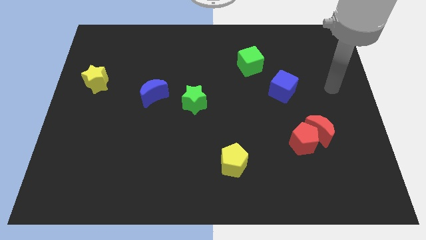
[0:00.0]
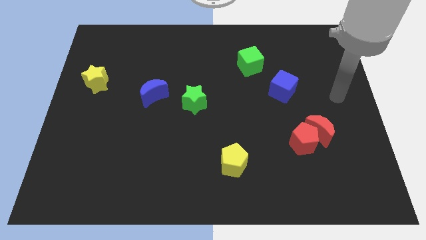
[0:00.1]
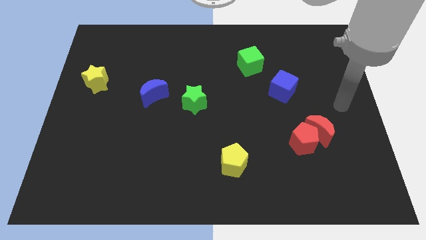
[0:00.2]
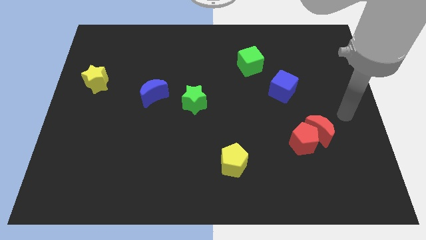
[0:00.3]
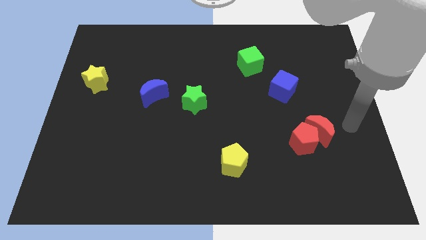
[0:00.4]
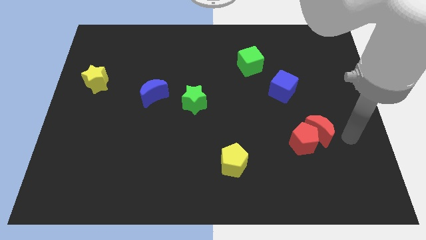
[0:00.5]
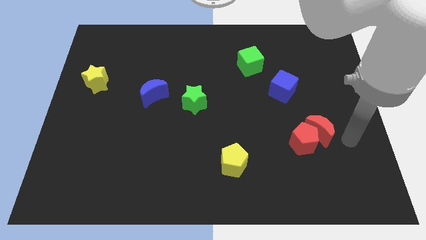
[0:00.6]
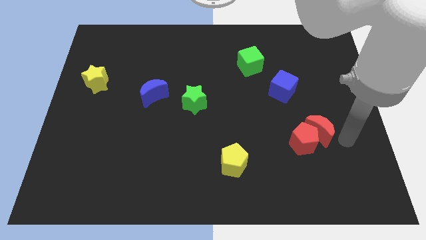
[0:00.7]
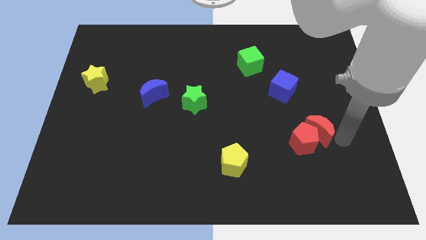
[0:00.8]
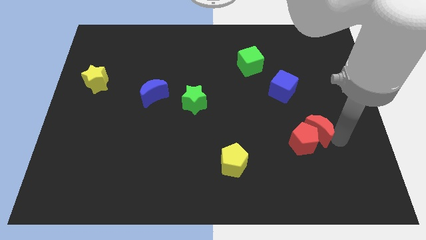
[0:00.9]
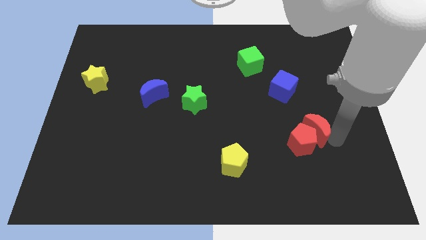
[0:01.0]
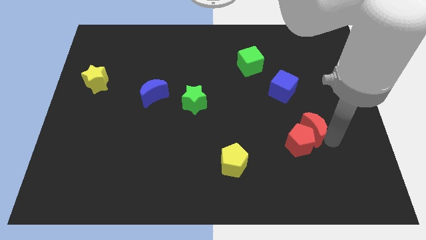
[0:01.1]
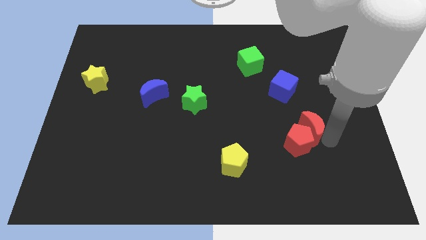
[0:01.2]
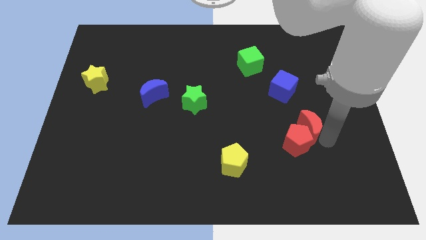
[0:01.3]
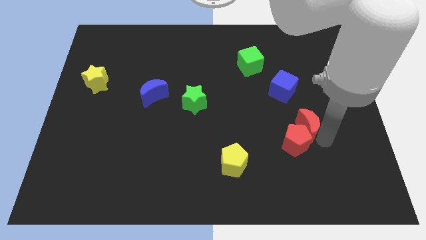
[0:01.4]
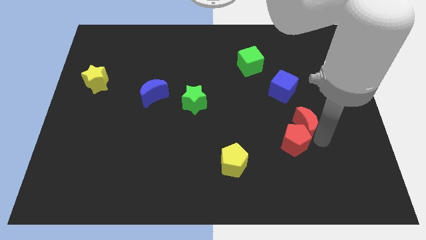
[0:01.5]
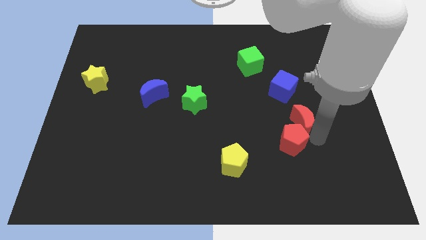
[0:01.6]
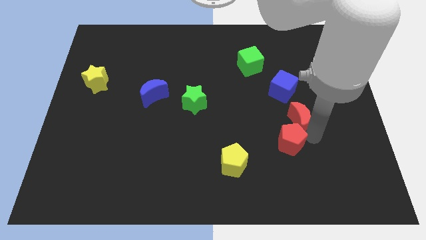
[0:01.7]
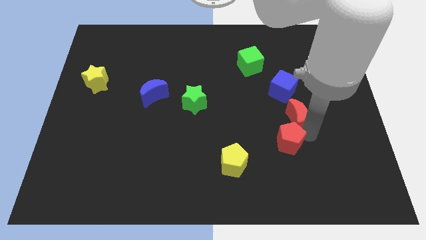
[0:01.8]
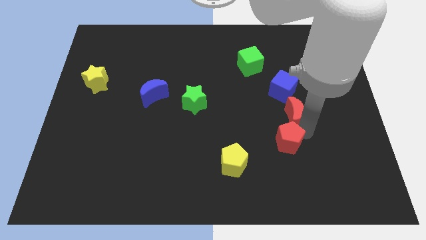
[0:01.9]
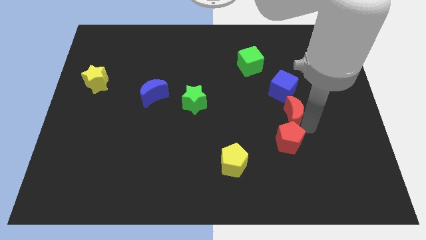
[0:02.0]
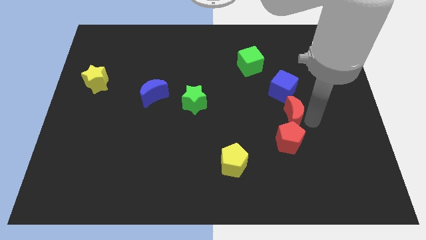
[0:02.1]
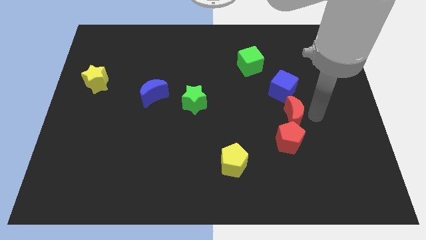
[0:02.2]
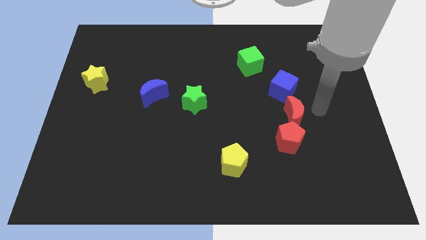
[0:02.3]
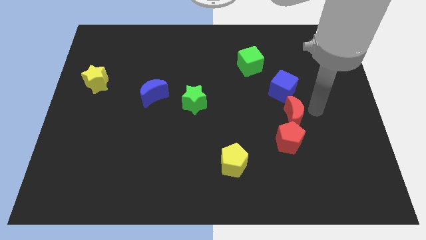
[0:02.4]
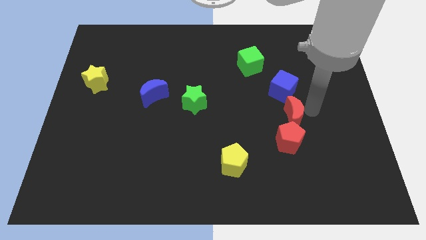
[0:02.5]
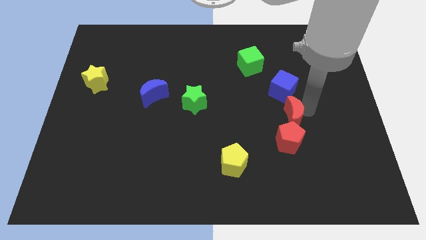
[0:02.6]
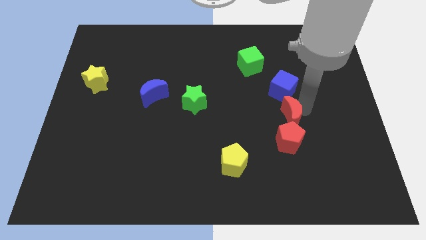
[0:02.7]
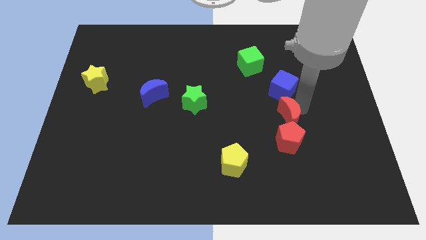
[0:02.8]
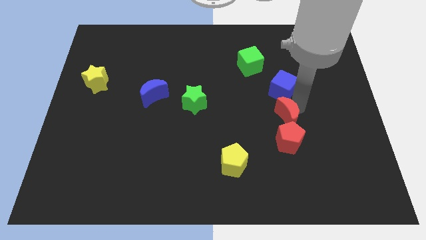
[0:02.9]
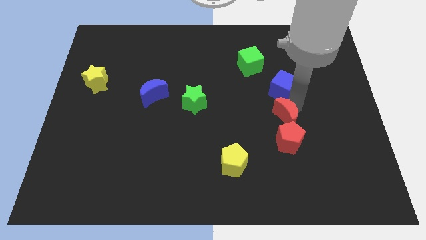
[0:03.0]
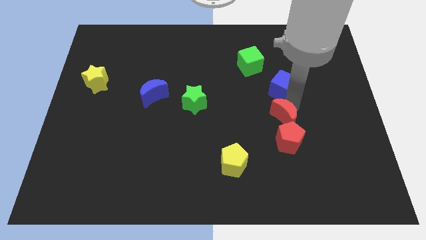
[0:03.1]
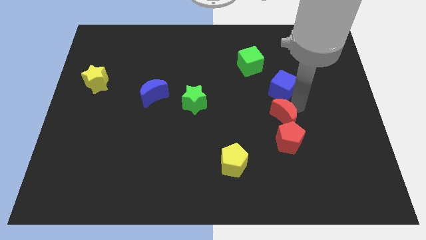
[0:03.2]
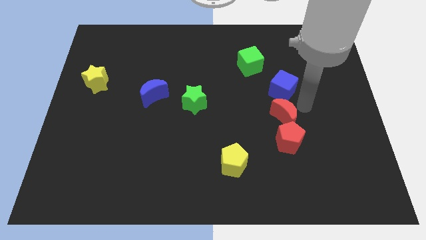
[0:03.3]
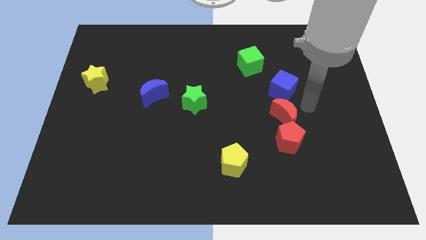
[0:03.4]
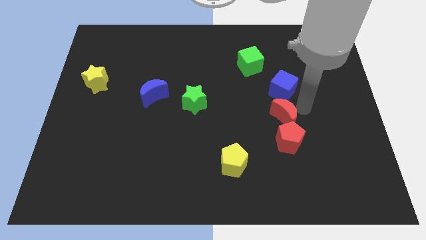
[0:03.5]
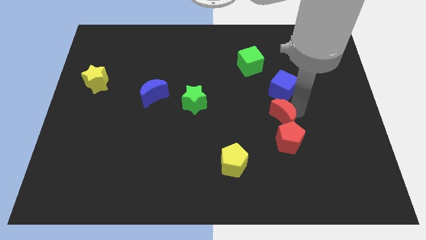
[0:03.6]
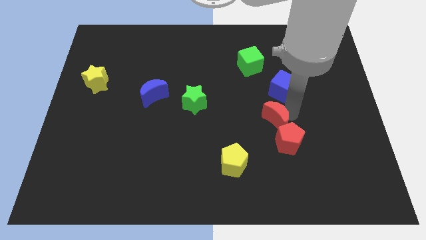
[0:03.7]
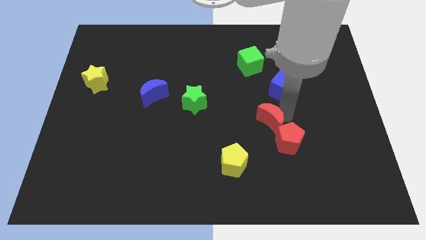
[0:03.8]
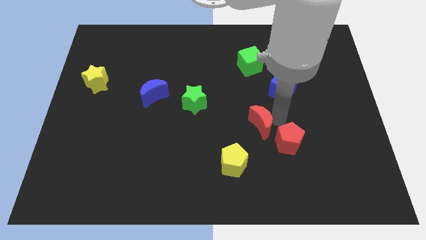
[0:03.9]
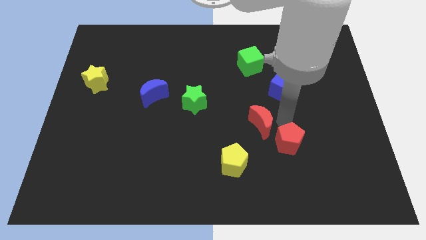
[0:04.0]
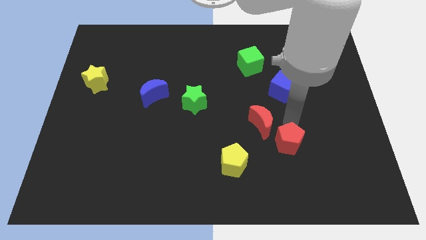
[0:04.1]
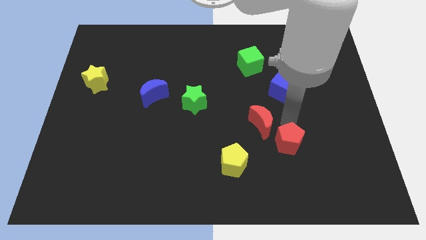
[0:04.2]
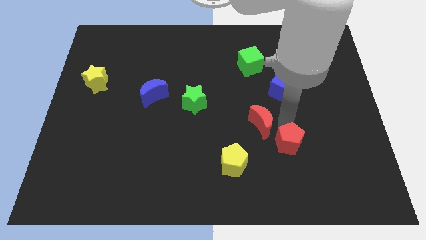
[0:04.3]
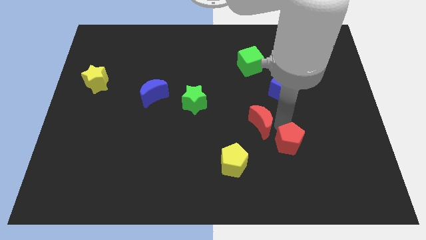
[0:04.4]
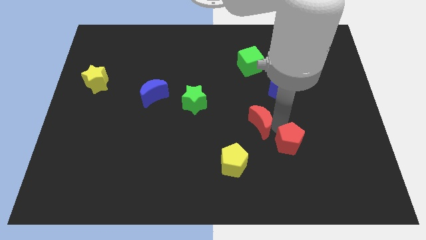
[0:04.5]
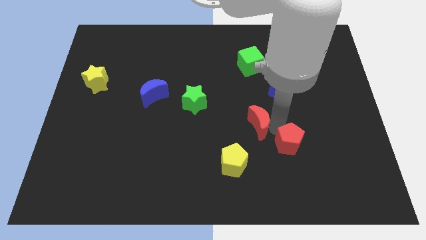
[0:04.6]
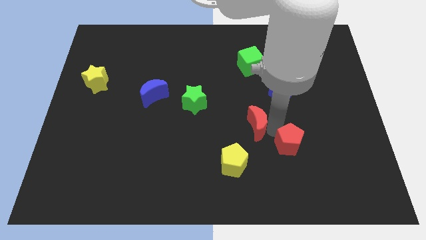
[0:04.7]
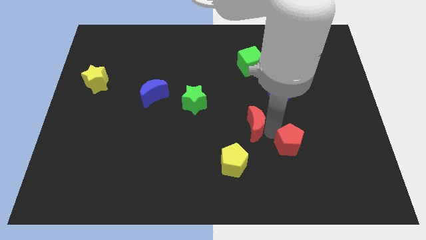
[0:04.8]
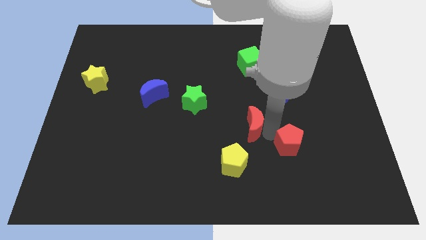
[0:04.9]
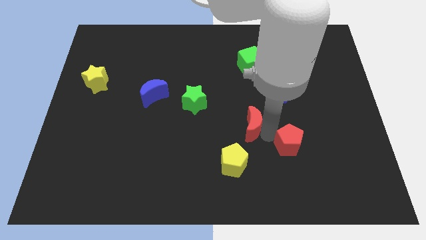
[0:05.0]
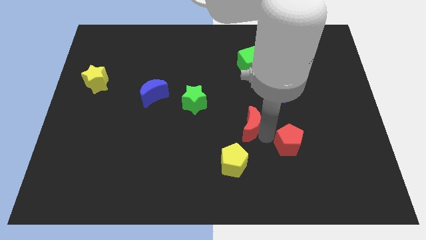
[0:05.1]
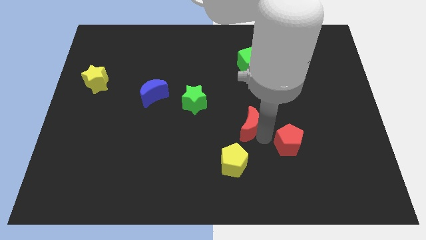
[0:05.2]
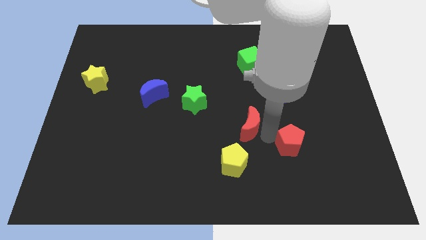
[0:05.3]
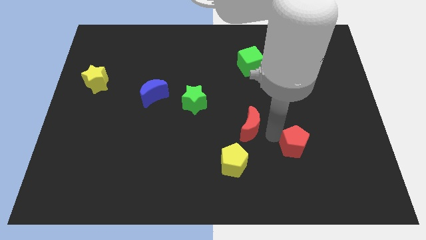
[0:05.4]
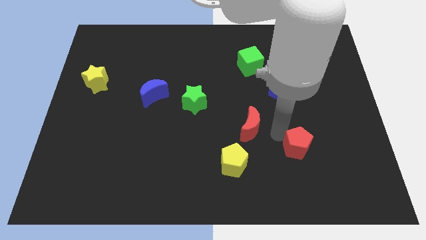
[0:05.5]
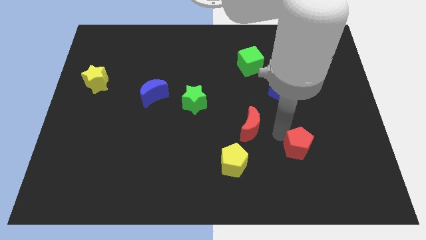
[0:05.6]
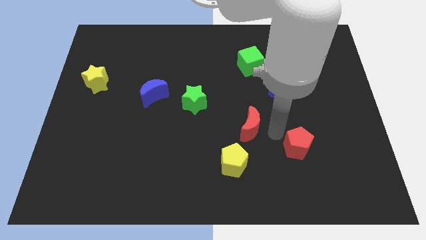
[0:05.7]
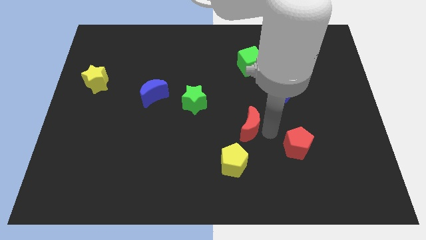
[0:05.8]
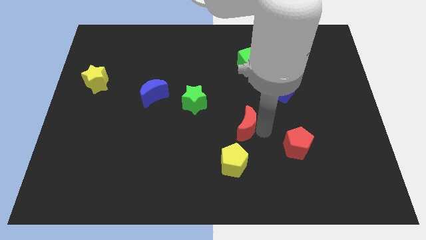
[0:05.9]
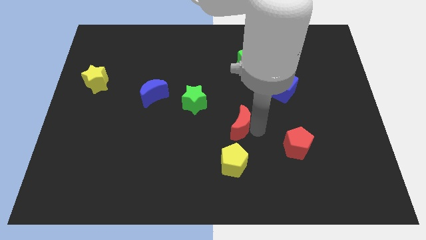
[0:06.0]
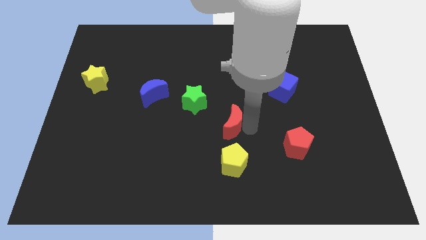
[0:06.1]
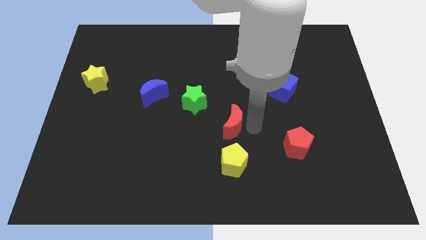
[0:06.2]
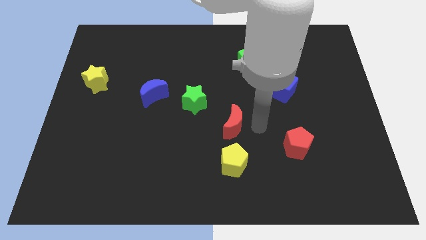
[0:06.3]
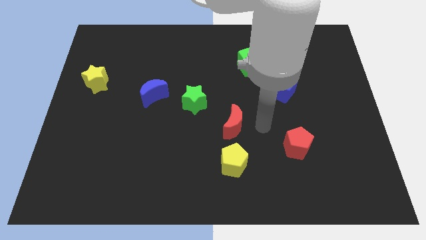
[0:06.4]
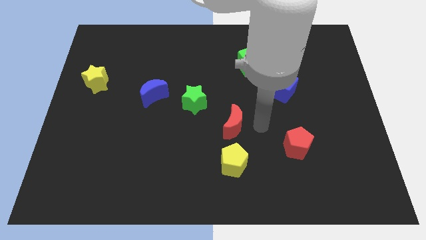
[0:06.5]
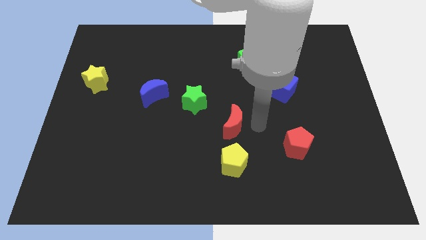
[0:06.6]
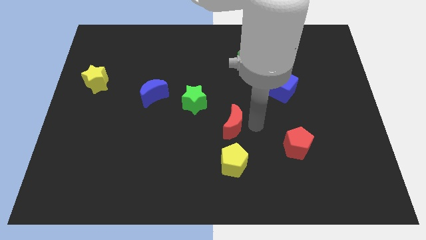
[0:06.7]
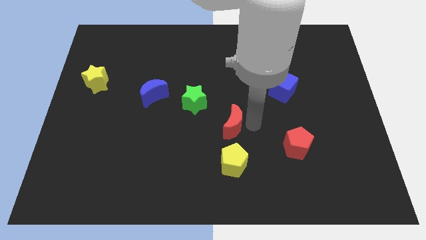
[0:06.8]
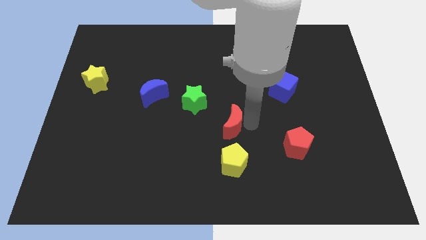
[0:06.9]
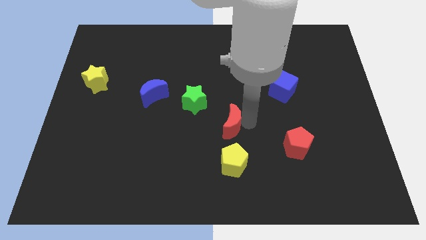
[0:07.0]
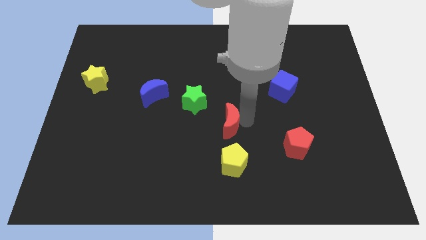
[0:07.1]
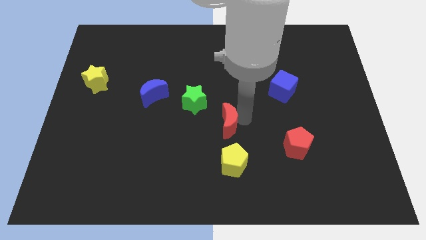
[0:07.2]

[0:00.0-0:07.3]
slide the red moon to the left

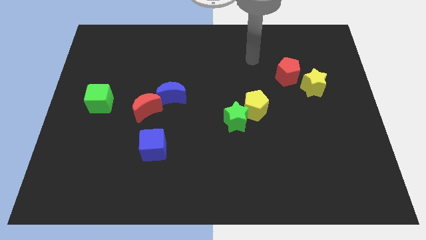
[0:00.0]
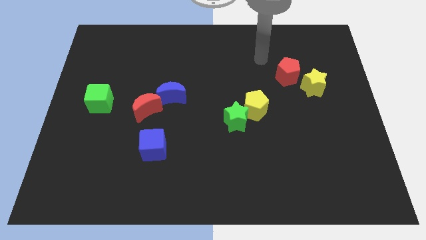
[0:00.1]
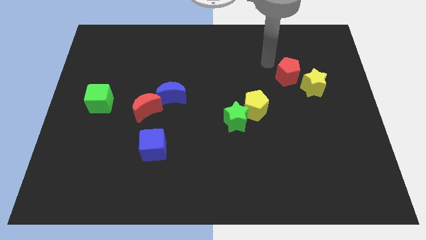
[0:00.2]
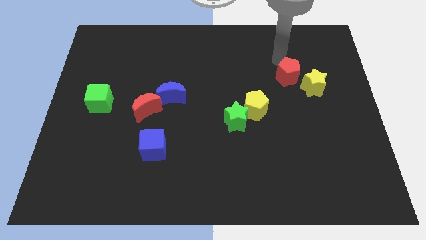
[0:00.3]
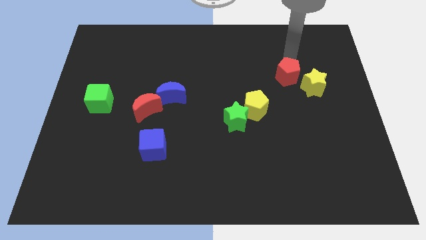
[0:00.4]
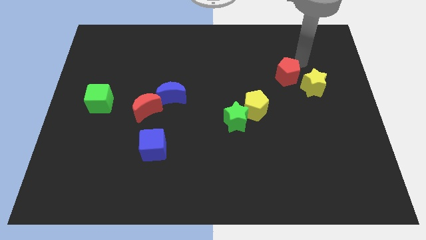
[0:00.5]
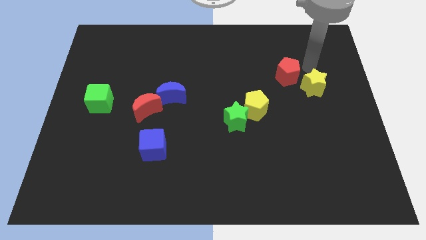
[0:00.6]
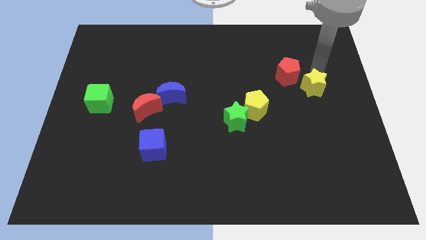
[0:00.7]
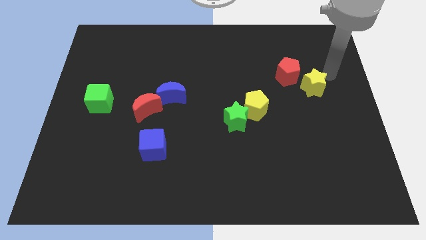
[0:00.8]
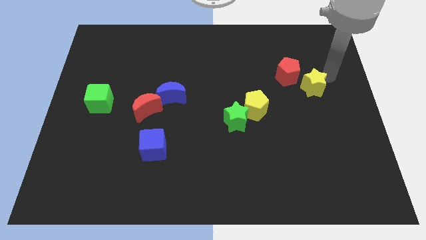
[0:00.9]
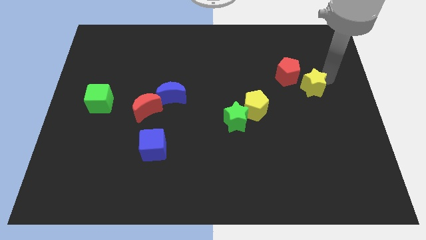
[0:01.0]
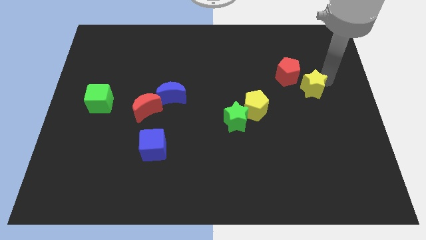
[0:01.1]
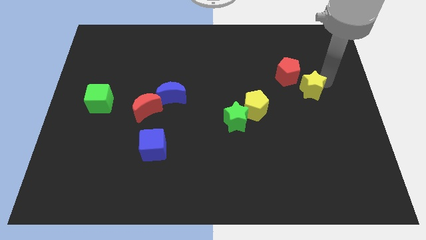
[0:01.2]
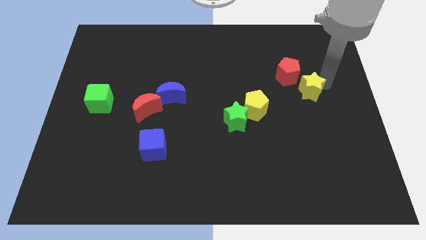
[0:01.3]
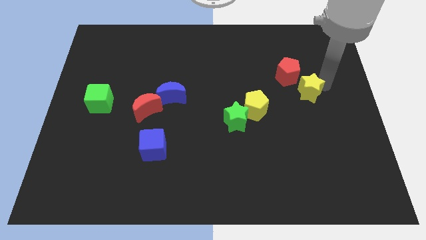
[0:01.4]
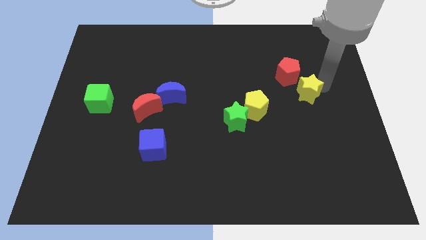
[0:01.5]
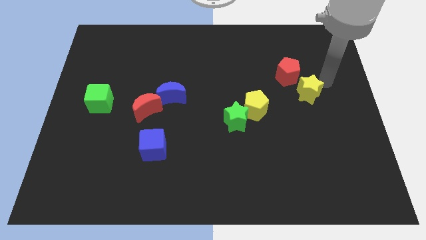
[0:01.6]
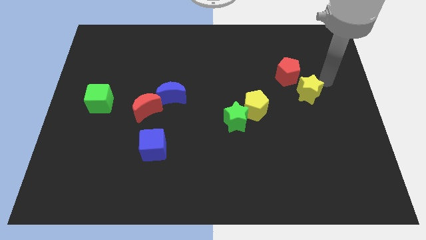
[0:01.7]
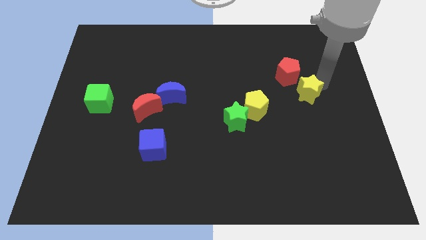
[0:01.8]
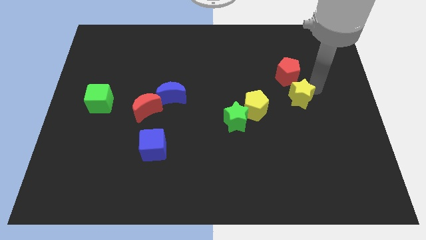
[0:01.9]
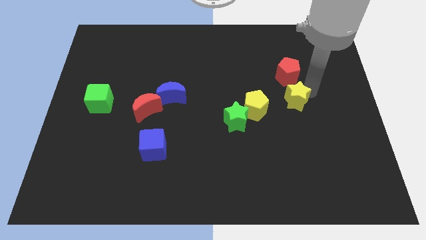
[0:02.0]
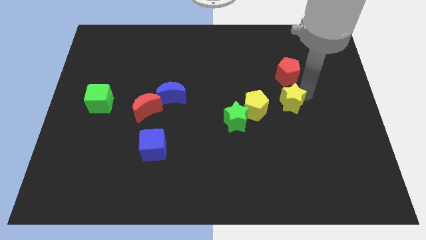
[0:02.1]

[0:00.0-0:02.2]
slightly slide the yellow star diagonally downwards and left
